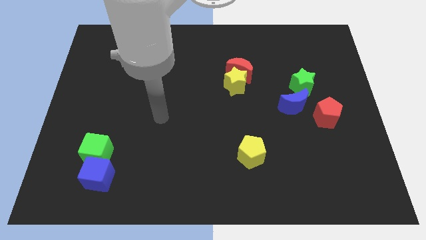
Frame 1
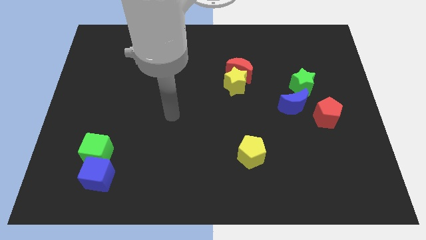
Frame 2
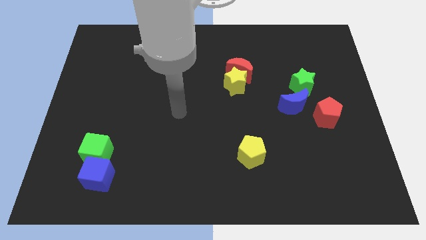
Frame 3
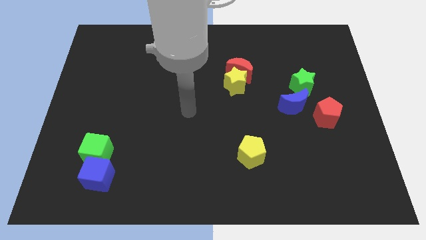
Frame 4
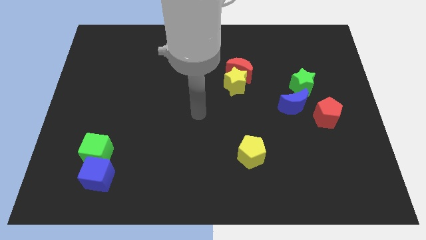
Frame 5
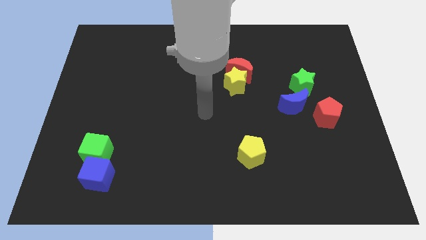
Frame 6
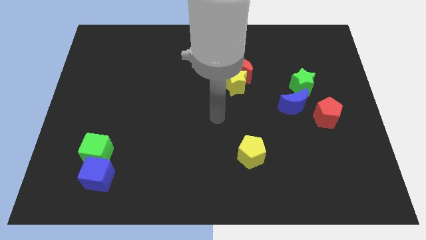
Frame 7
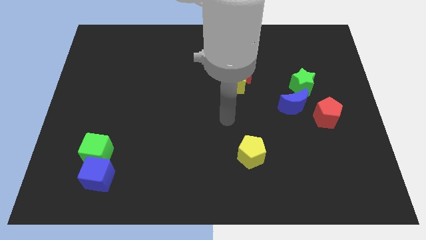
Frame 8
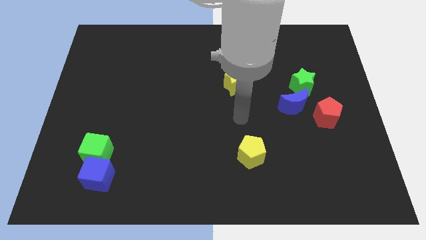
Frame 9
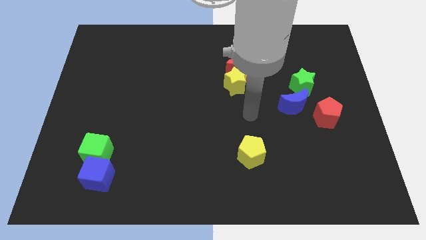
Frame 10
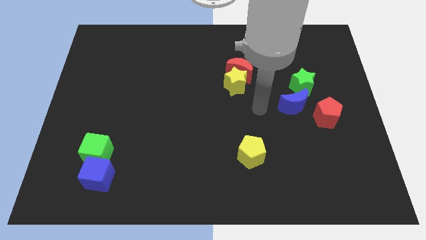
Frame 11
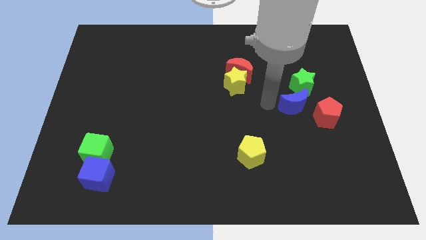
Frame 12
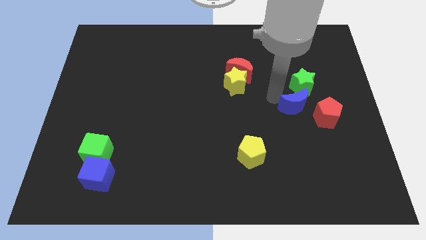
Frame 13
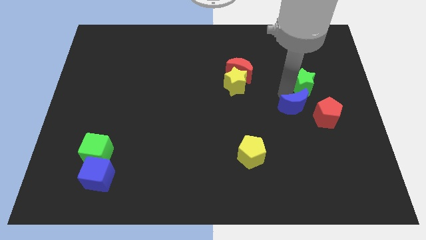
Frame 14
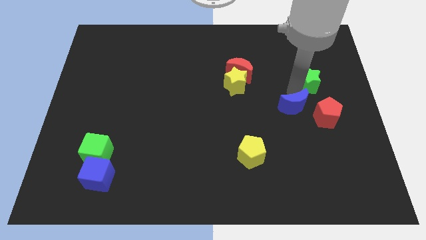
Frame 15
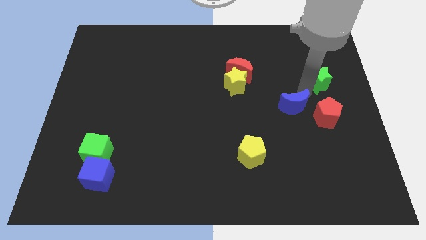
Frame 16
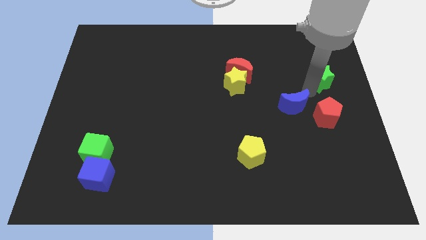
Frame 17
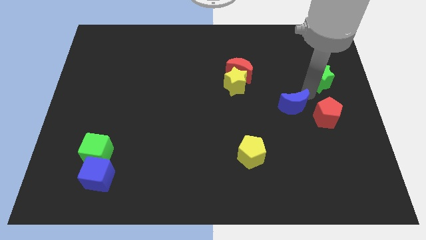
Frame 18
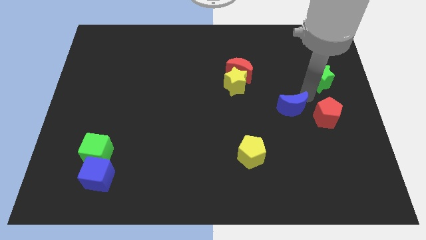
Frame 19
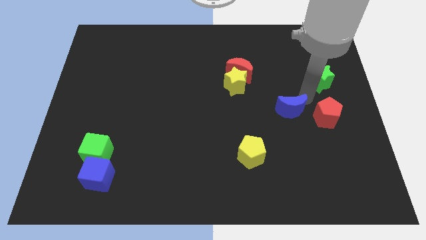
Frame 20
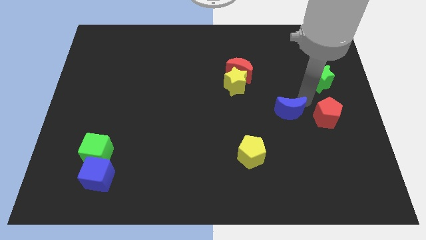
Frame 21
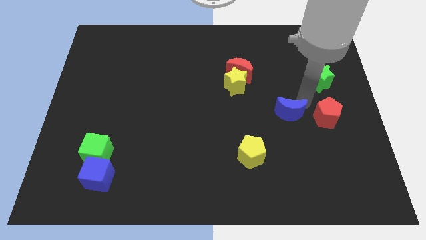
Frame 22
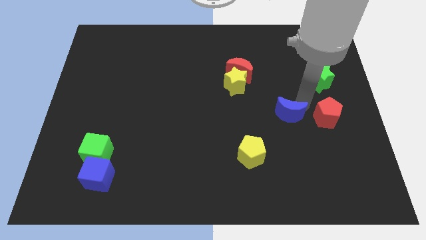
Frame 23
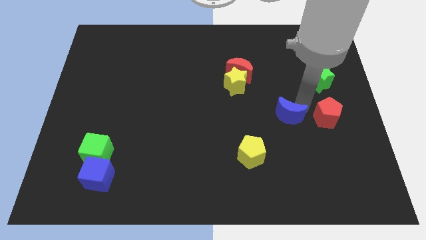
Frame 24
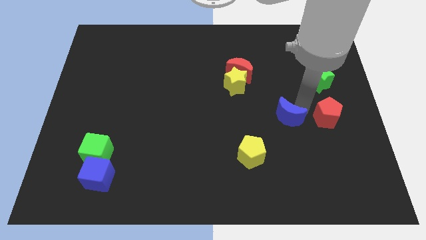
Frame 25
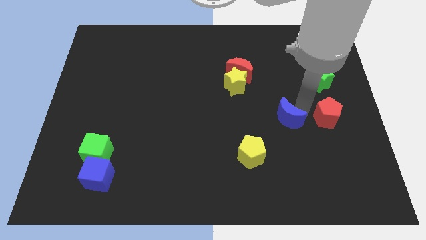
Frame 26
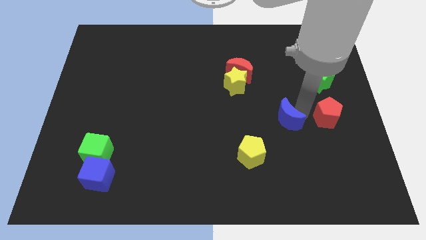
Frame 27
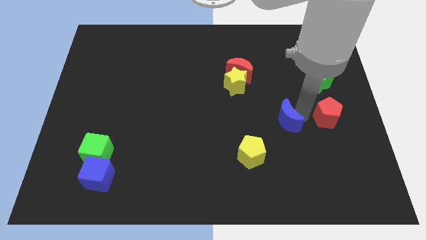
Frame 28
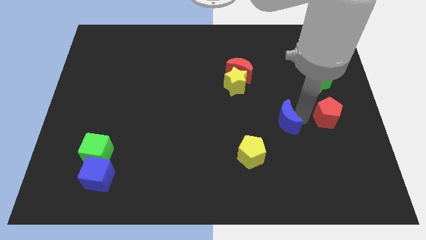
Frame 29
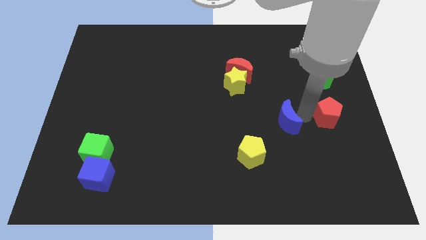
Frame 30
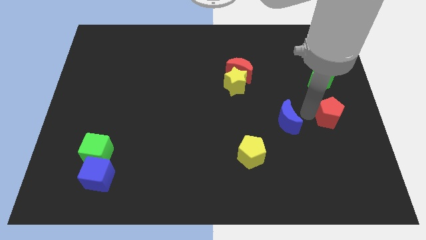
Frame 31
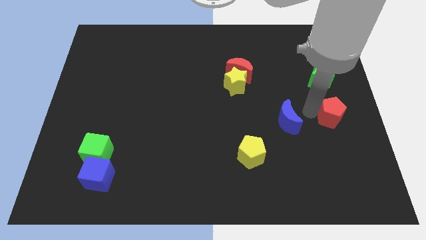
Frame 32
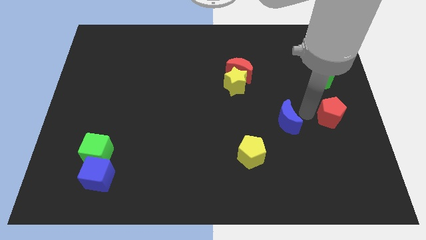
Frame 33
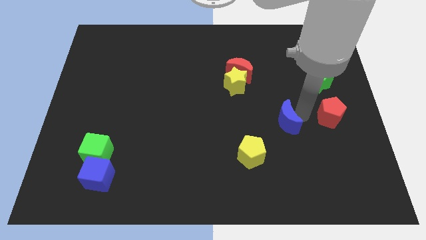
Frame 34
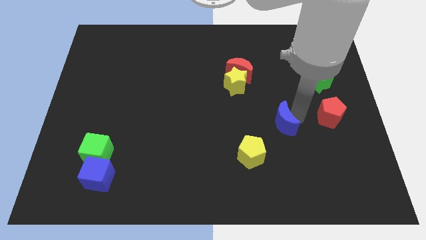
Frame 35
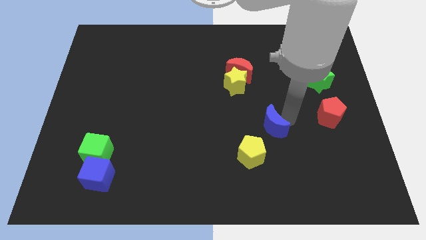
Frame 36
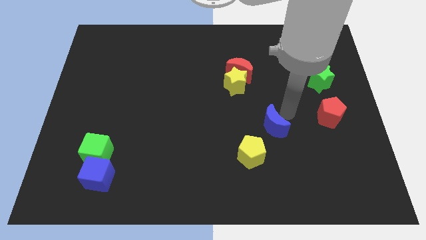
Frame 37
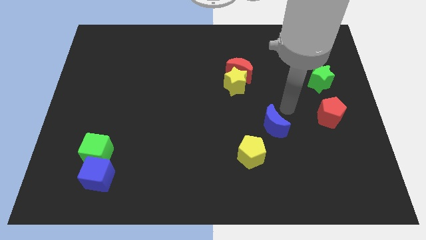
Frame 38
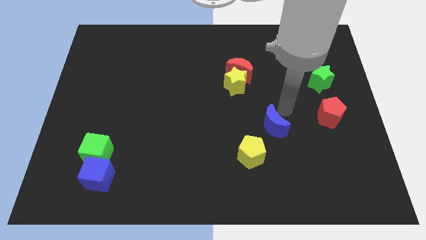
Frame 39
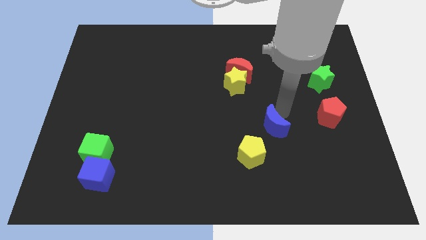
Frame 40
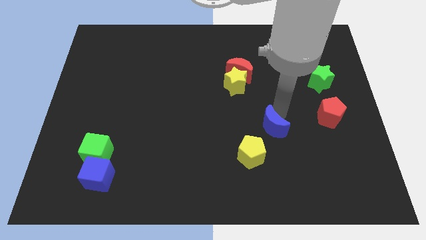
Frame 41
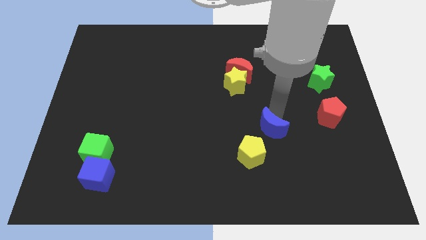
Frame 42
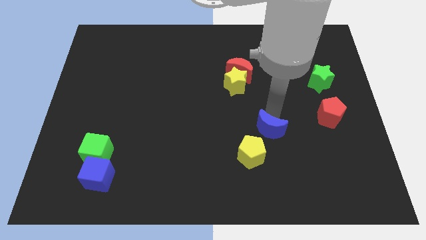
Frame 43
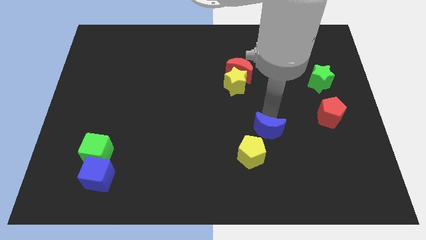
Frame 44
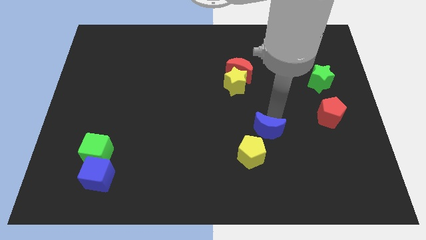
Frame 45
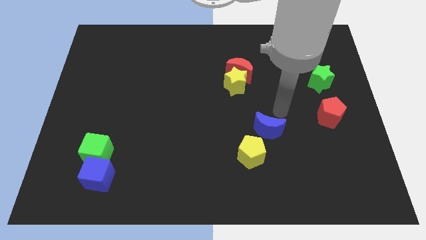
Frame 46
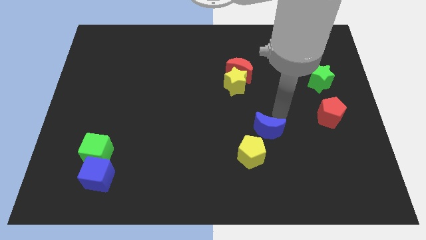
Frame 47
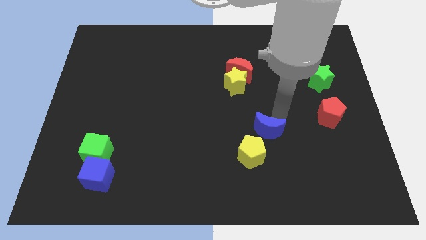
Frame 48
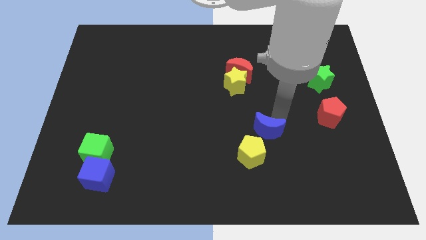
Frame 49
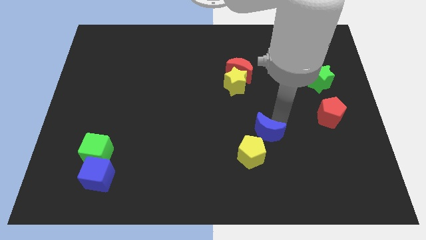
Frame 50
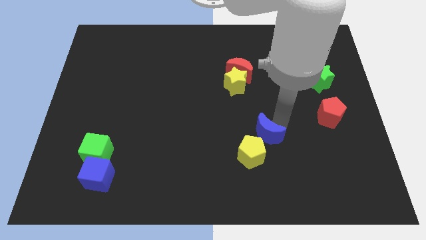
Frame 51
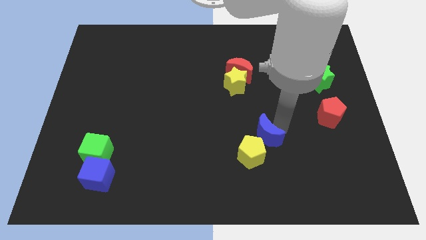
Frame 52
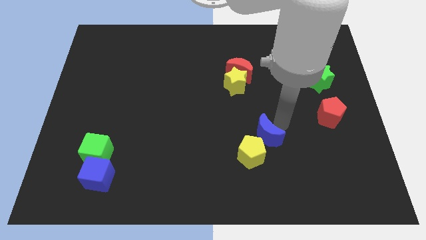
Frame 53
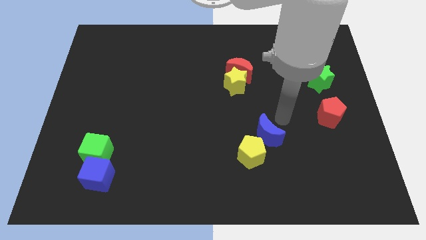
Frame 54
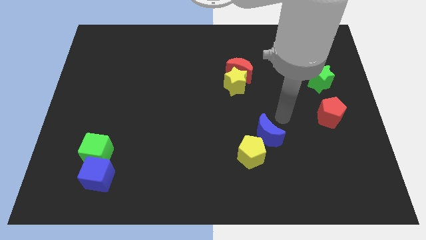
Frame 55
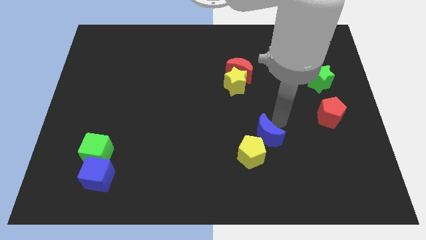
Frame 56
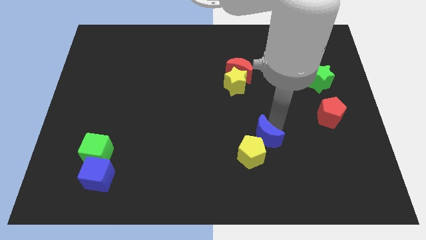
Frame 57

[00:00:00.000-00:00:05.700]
push the blue moon to the yellow pentagon

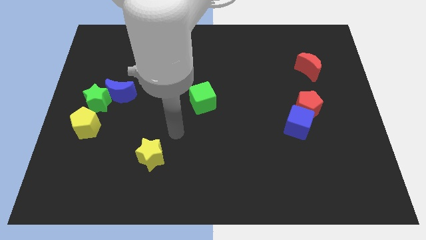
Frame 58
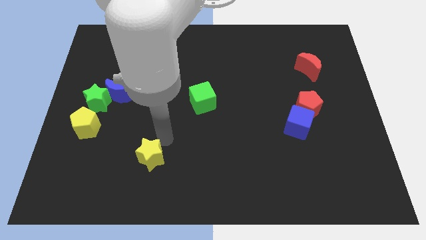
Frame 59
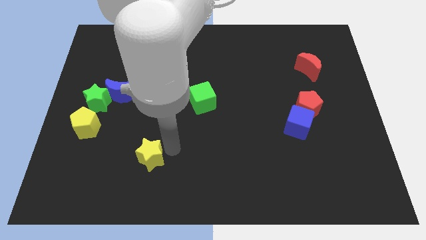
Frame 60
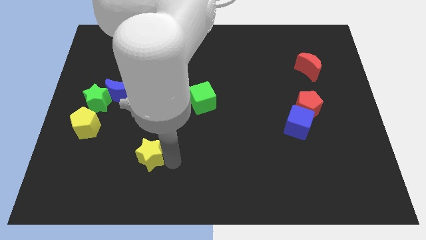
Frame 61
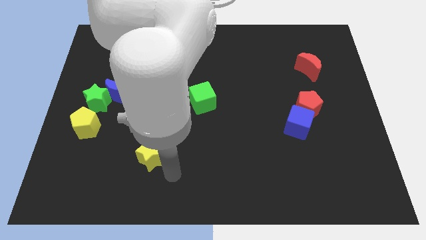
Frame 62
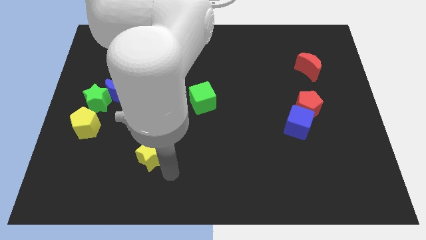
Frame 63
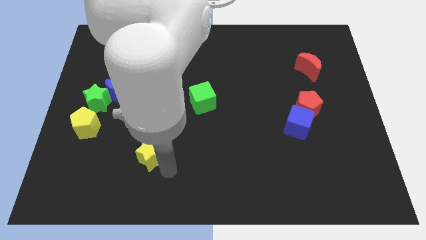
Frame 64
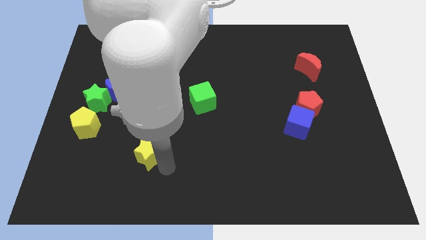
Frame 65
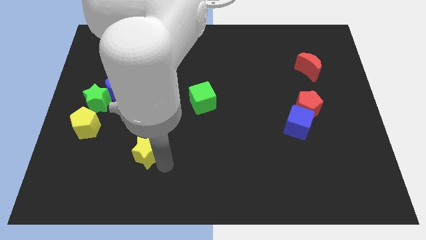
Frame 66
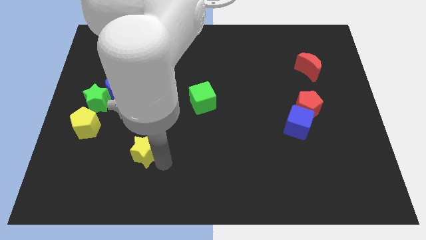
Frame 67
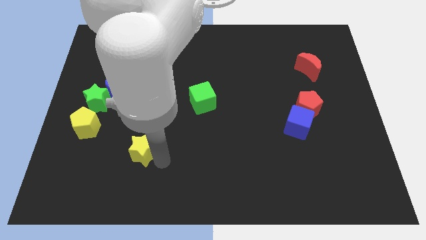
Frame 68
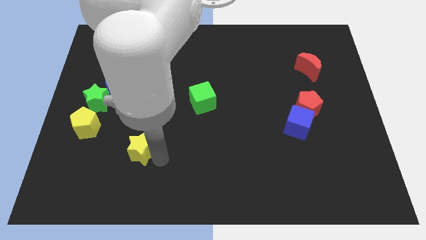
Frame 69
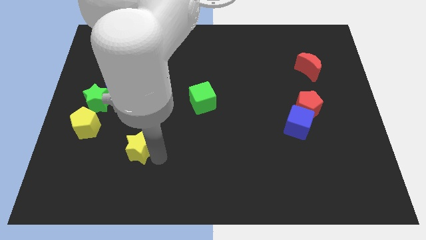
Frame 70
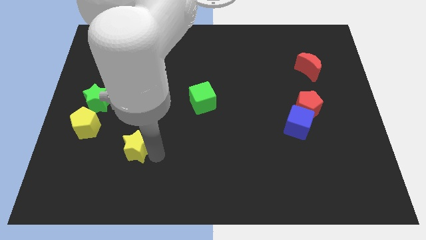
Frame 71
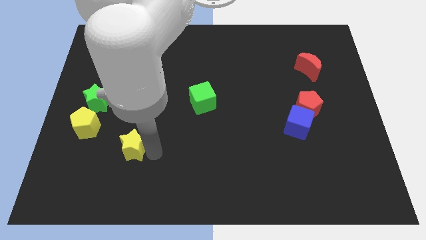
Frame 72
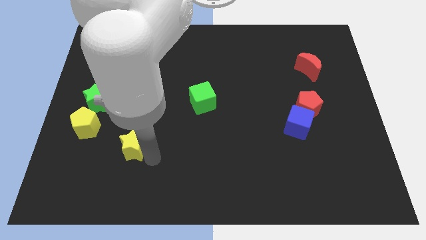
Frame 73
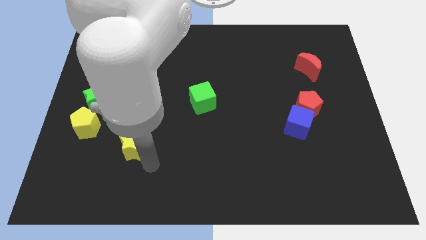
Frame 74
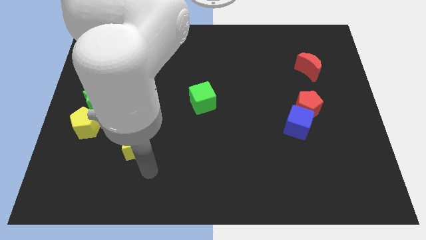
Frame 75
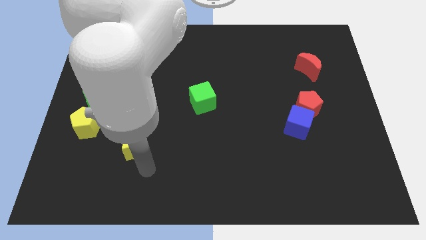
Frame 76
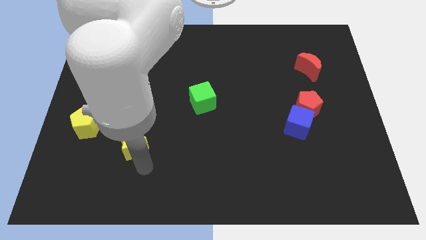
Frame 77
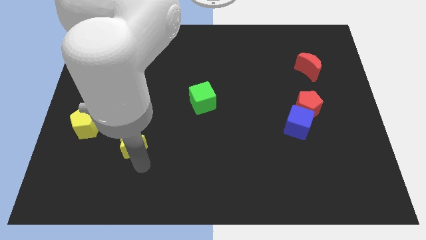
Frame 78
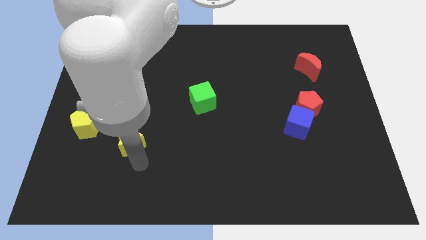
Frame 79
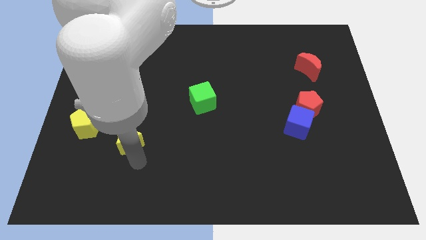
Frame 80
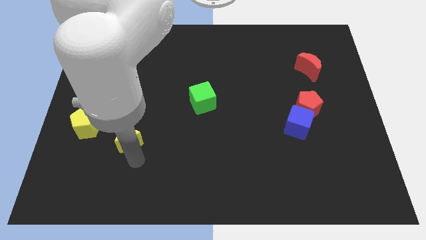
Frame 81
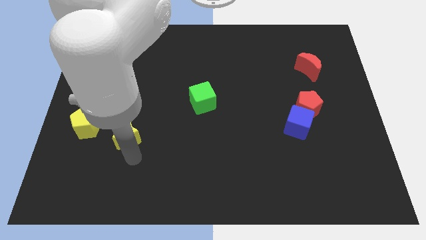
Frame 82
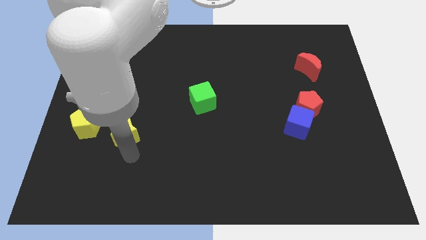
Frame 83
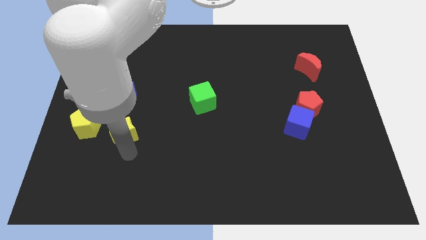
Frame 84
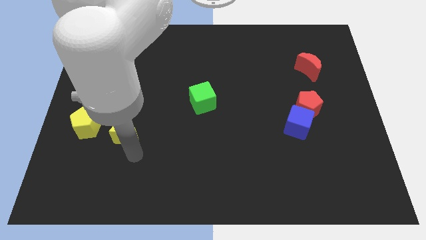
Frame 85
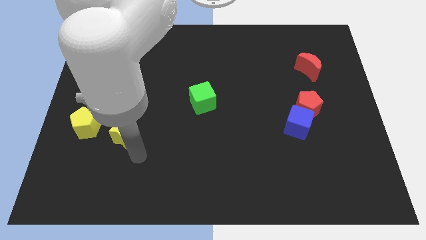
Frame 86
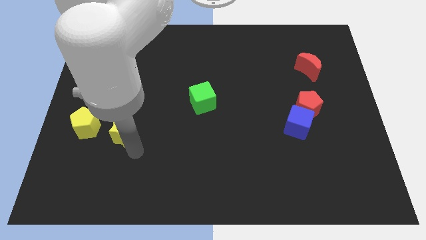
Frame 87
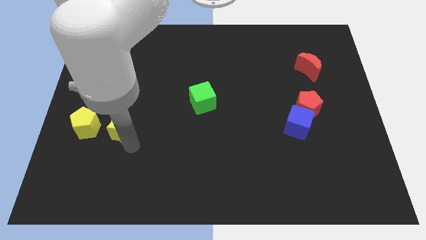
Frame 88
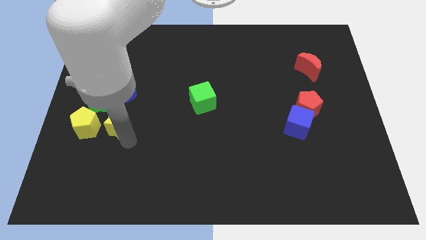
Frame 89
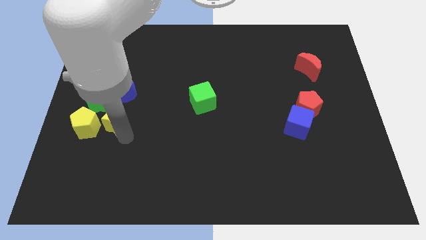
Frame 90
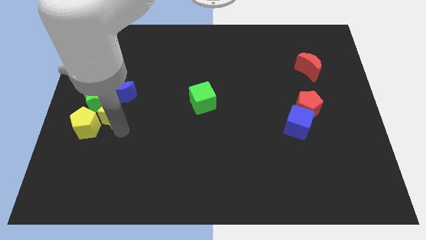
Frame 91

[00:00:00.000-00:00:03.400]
push the yellow star towards the green star
